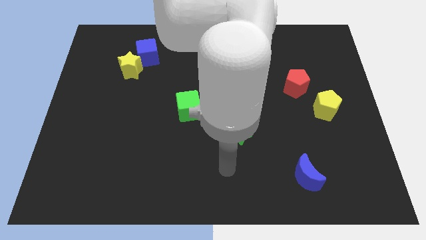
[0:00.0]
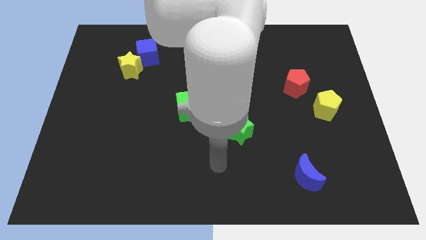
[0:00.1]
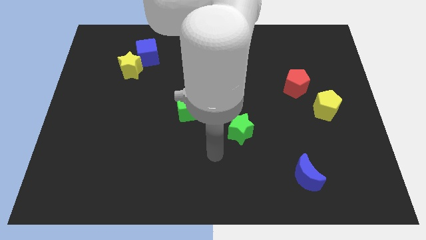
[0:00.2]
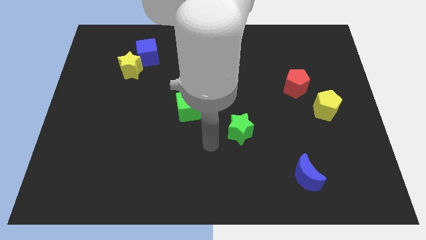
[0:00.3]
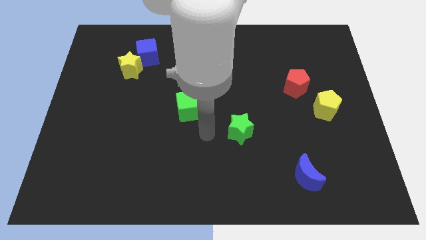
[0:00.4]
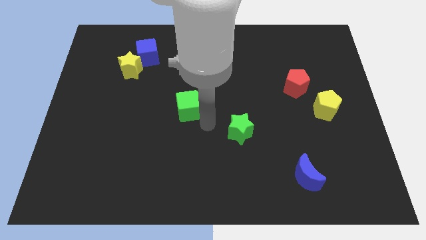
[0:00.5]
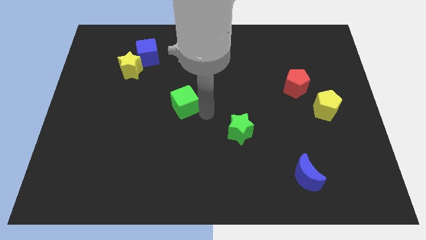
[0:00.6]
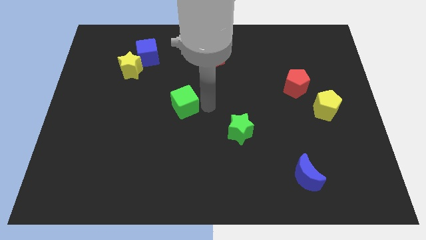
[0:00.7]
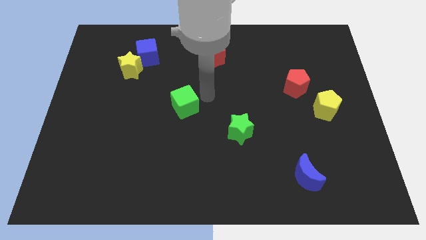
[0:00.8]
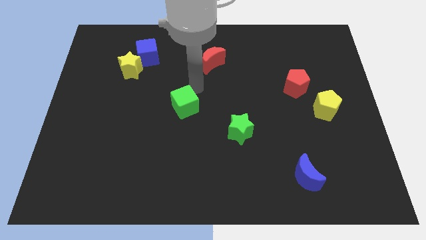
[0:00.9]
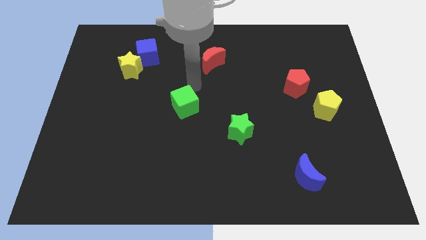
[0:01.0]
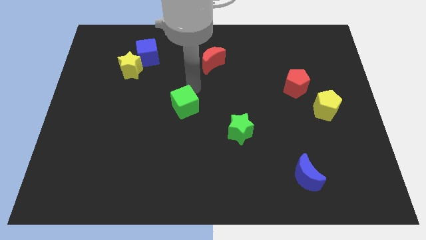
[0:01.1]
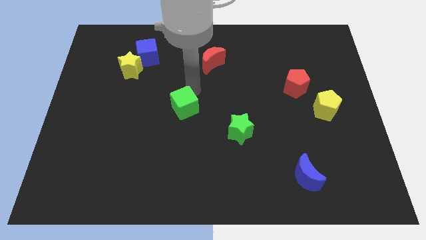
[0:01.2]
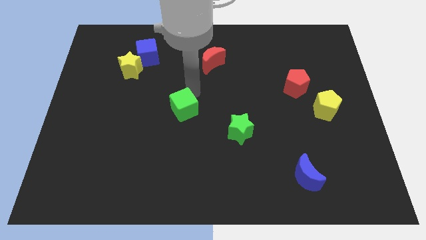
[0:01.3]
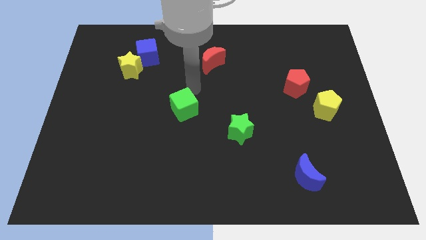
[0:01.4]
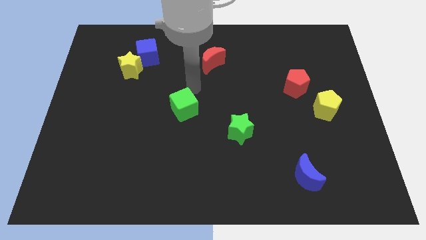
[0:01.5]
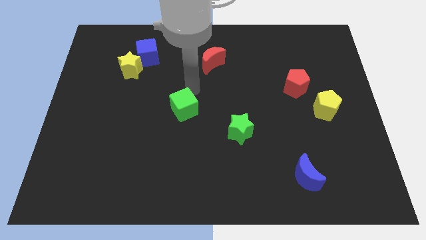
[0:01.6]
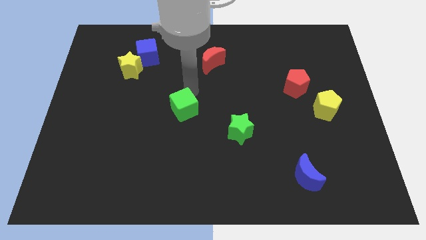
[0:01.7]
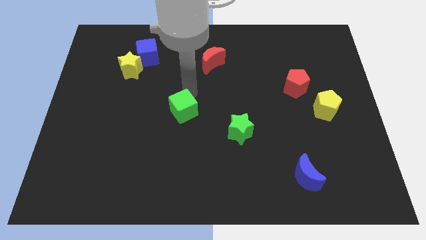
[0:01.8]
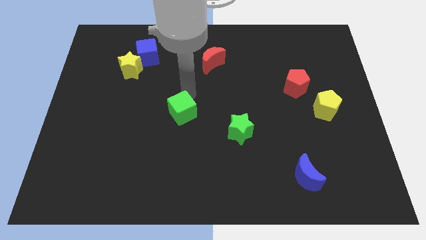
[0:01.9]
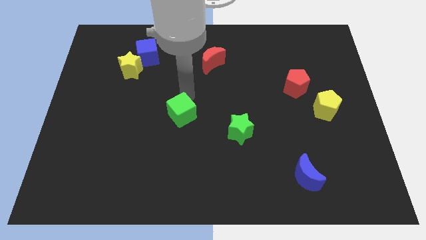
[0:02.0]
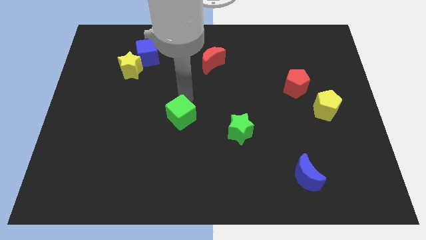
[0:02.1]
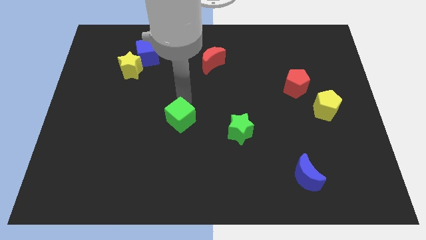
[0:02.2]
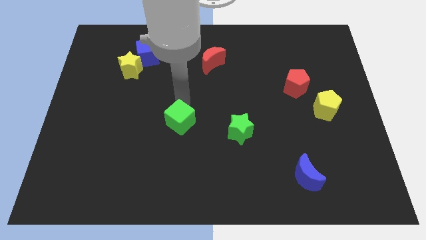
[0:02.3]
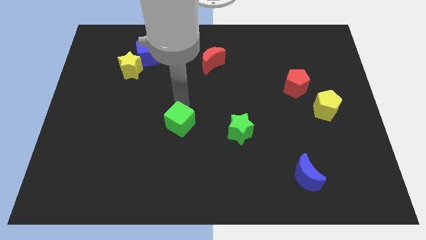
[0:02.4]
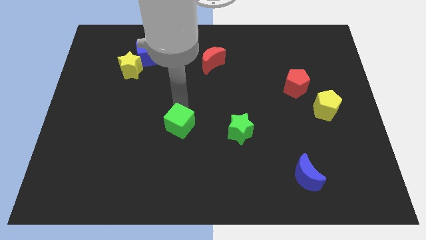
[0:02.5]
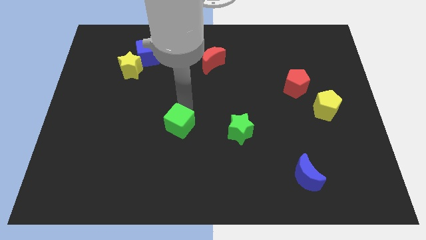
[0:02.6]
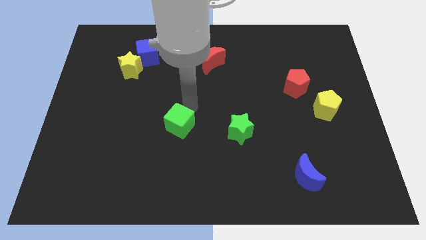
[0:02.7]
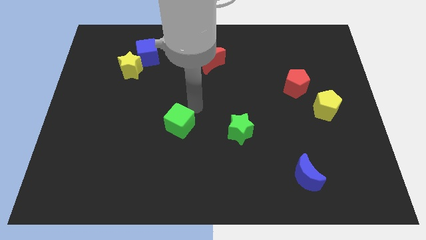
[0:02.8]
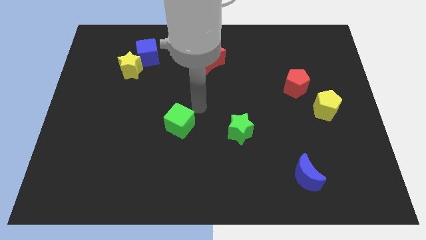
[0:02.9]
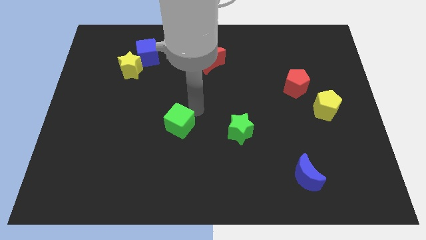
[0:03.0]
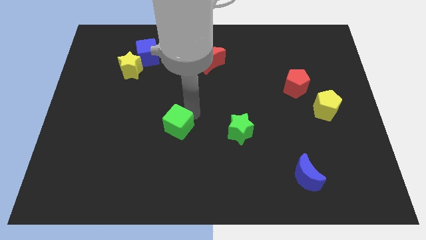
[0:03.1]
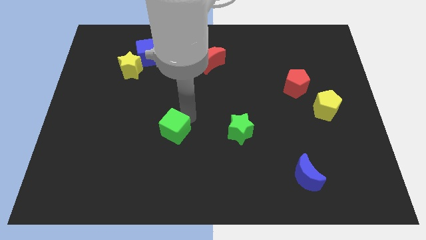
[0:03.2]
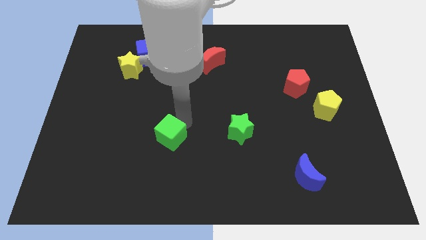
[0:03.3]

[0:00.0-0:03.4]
slide the green cube downwards and to the left diagonally a little

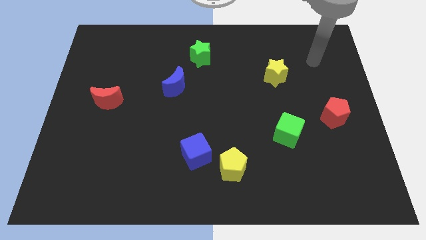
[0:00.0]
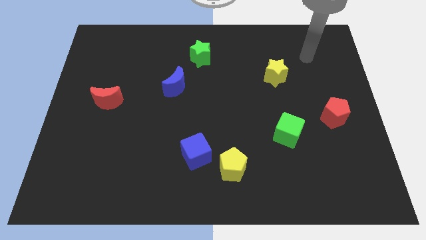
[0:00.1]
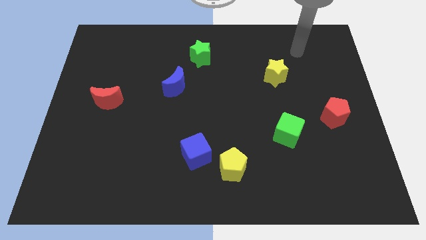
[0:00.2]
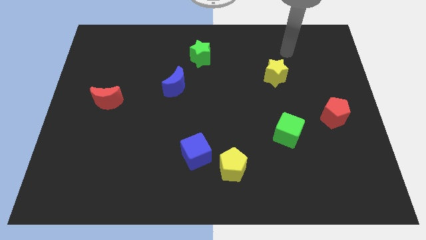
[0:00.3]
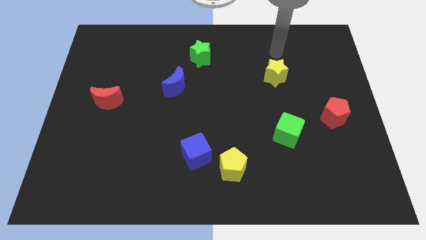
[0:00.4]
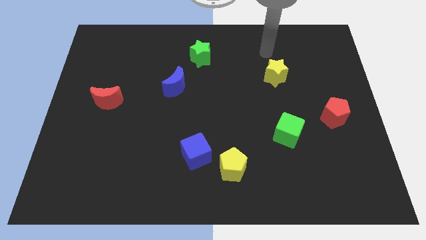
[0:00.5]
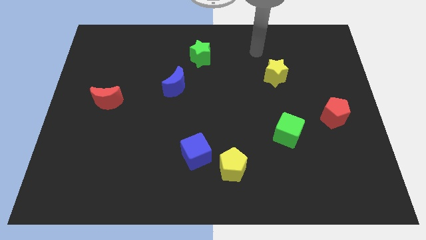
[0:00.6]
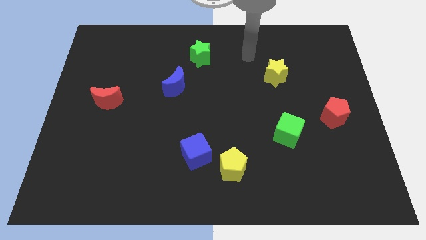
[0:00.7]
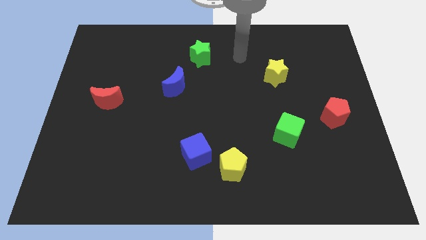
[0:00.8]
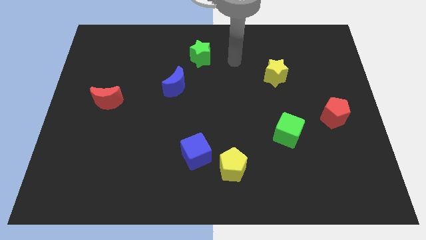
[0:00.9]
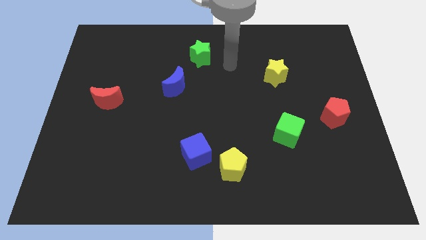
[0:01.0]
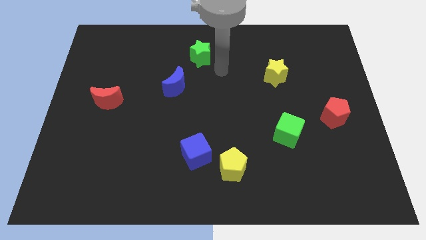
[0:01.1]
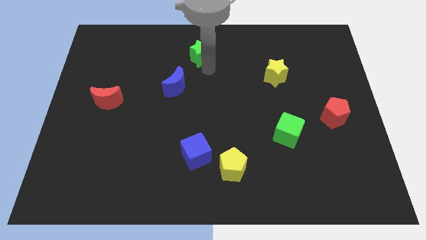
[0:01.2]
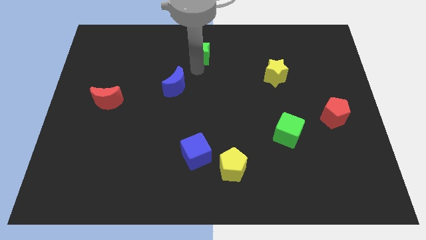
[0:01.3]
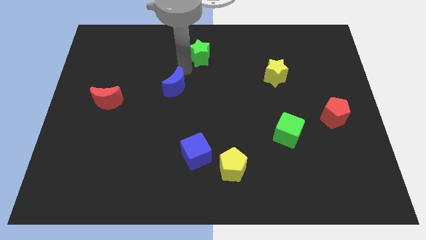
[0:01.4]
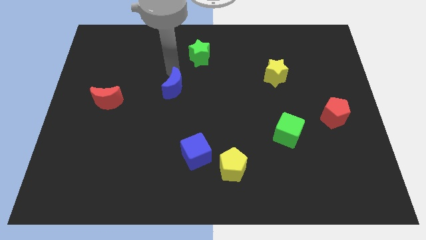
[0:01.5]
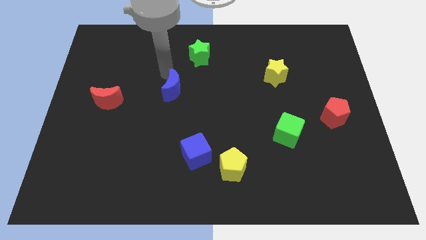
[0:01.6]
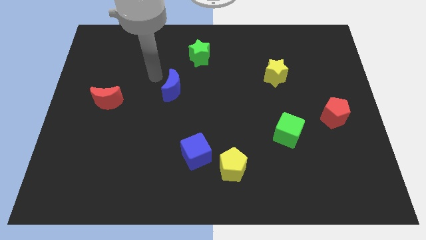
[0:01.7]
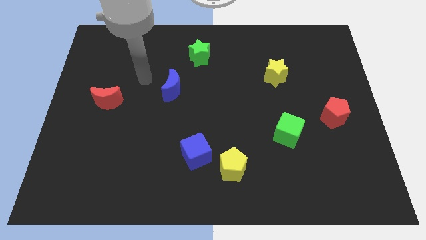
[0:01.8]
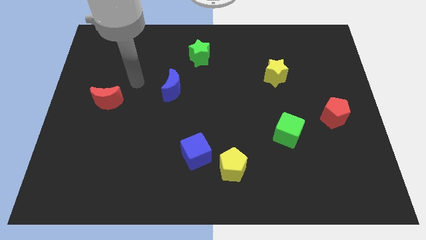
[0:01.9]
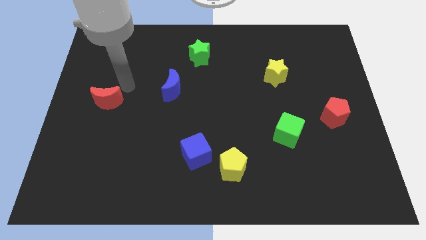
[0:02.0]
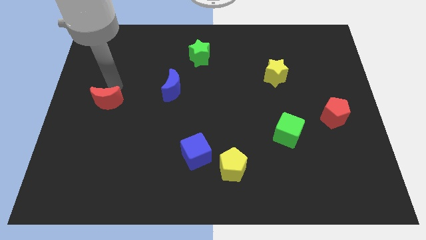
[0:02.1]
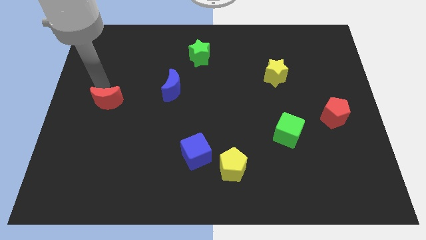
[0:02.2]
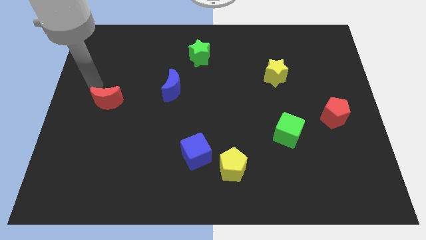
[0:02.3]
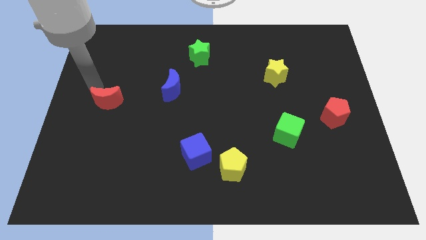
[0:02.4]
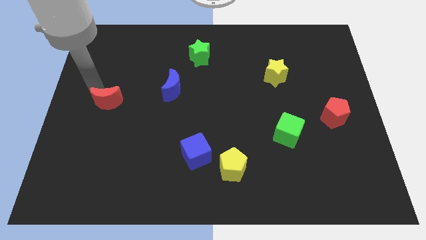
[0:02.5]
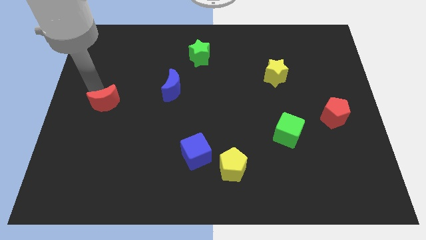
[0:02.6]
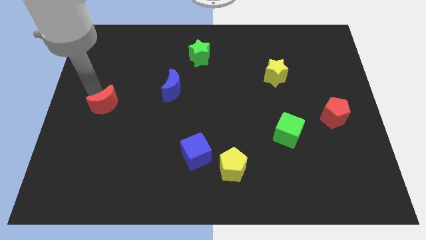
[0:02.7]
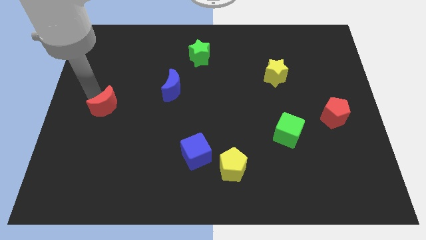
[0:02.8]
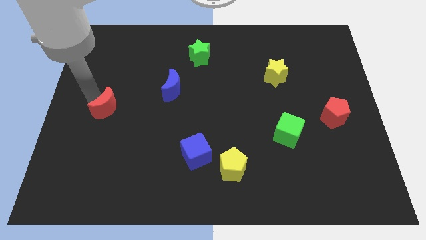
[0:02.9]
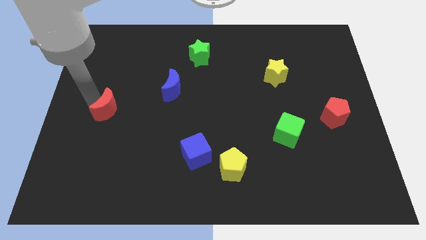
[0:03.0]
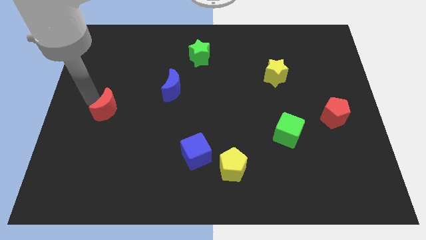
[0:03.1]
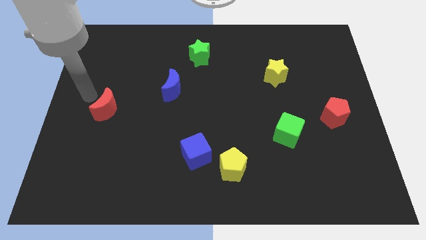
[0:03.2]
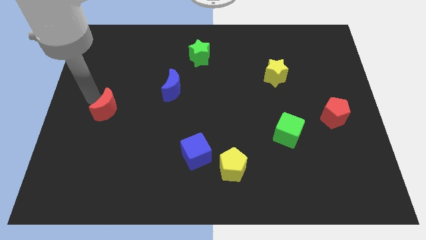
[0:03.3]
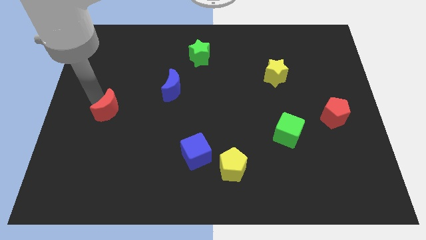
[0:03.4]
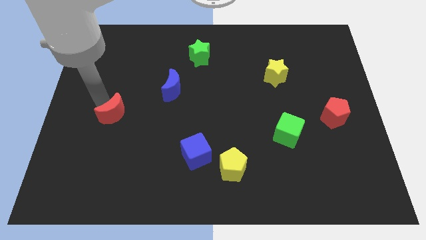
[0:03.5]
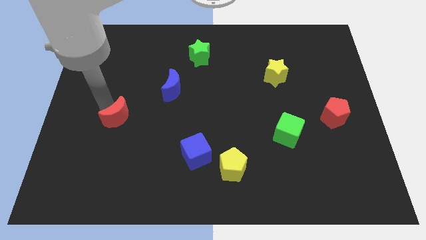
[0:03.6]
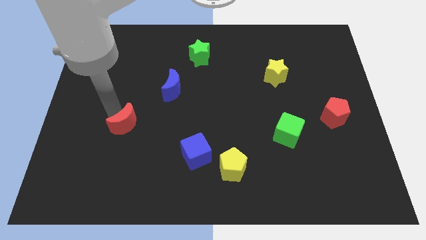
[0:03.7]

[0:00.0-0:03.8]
push the red moon somewhat down and then right

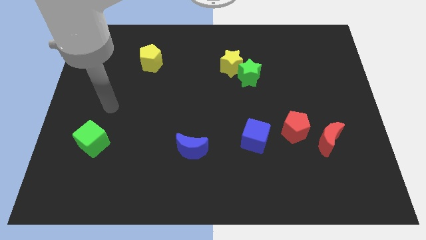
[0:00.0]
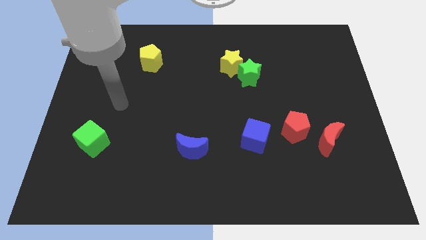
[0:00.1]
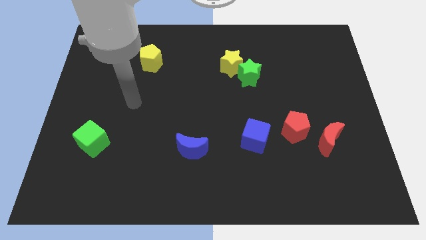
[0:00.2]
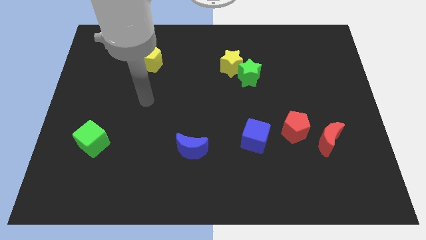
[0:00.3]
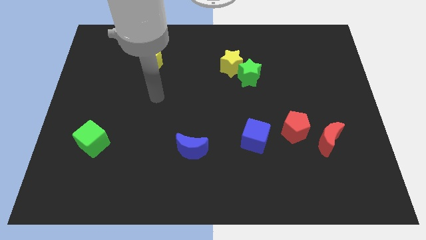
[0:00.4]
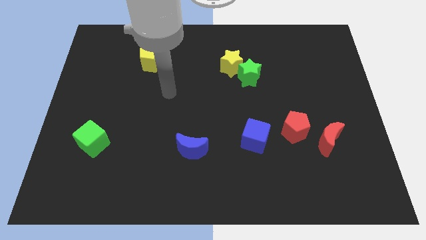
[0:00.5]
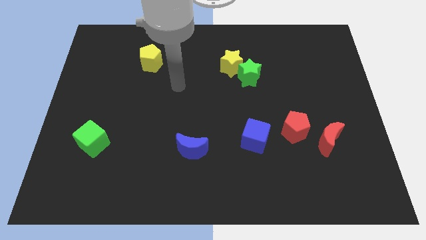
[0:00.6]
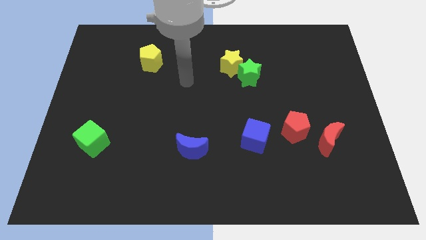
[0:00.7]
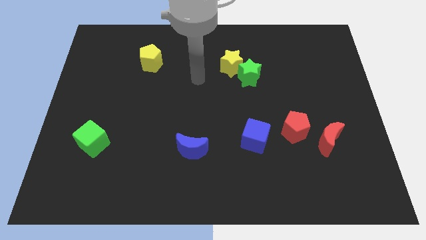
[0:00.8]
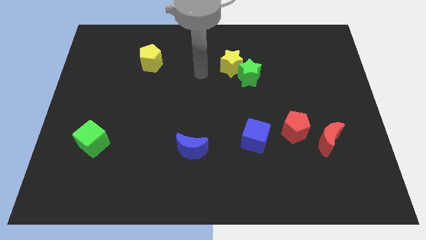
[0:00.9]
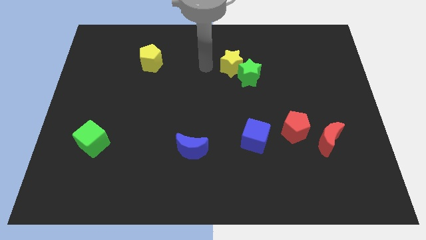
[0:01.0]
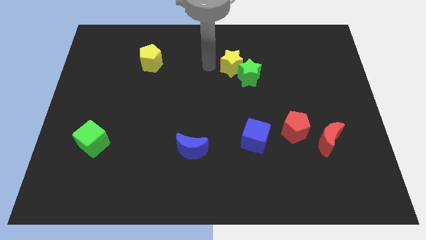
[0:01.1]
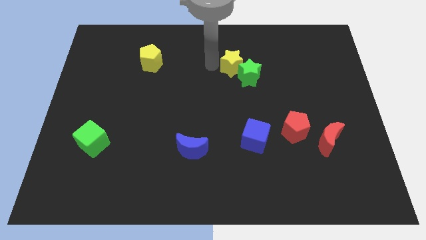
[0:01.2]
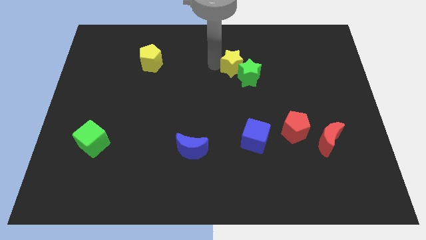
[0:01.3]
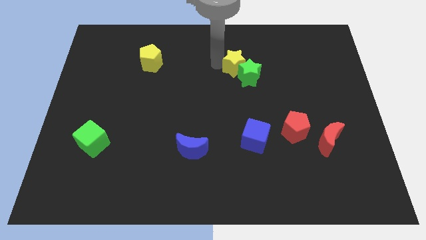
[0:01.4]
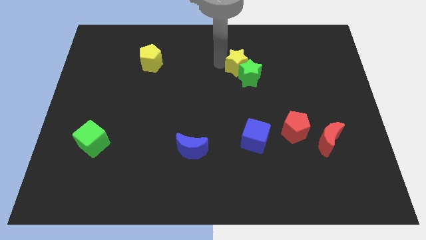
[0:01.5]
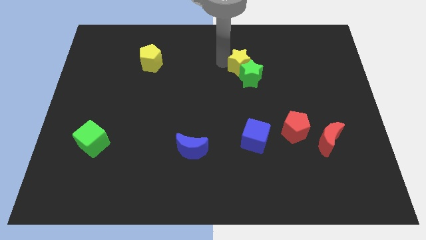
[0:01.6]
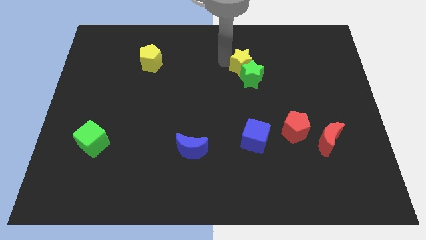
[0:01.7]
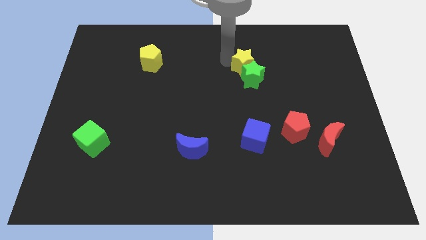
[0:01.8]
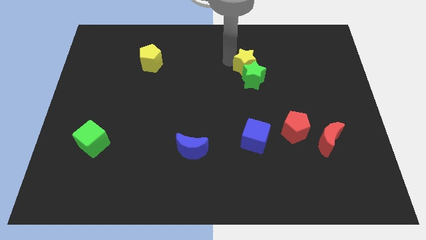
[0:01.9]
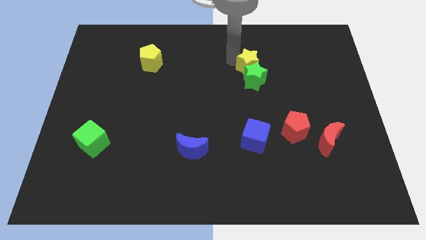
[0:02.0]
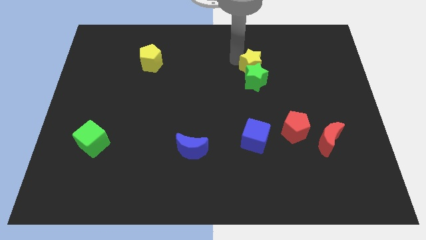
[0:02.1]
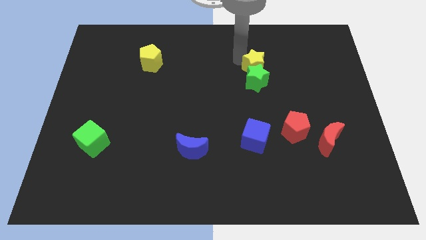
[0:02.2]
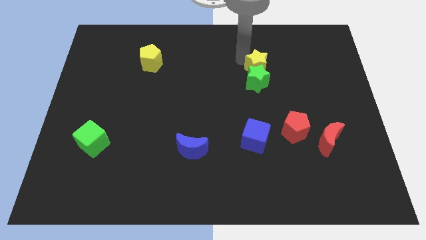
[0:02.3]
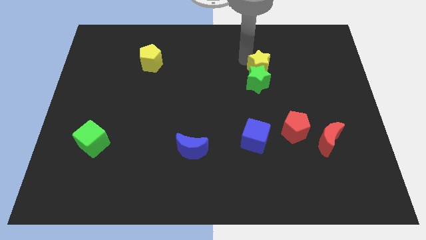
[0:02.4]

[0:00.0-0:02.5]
move the yellow star slightly to the right
